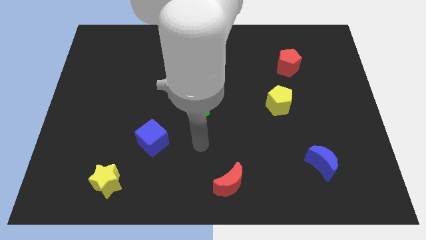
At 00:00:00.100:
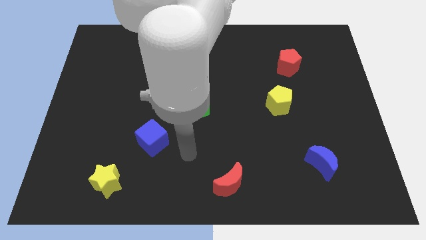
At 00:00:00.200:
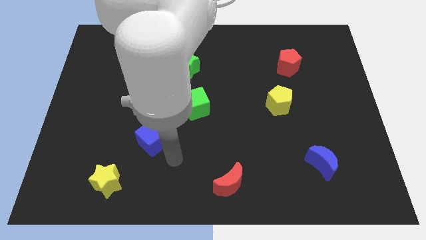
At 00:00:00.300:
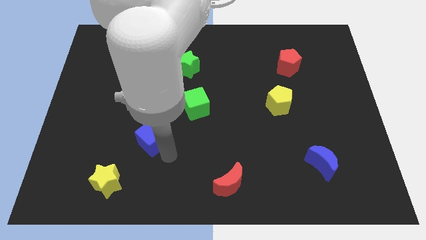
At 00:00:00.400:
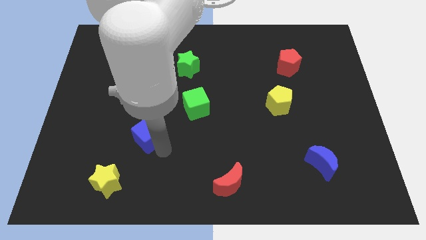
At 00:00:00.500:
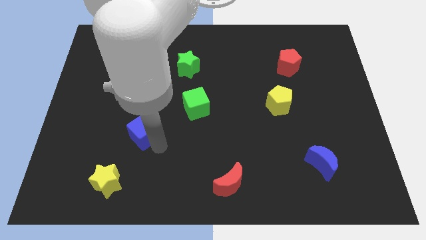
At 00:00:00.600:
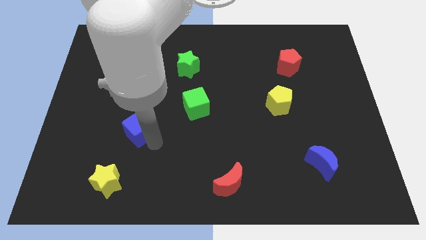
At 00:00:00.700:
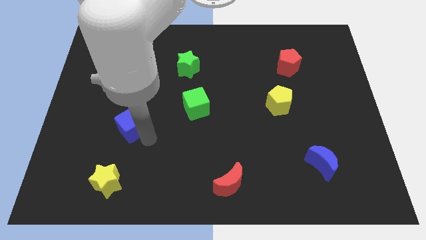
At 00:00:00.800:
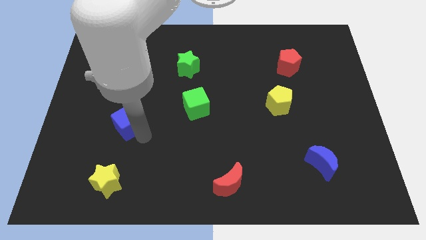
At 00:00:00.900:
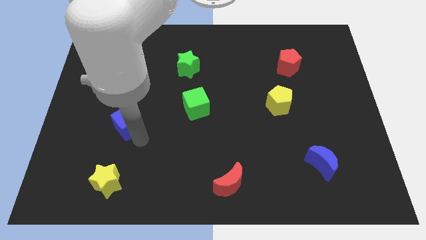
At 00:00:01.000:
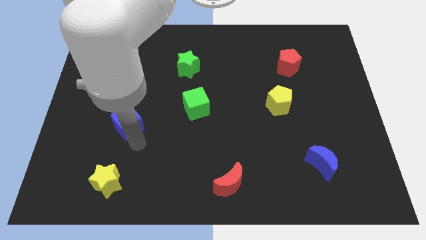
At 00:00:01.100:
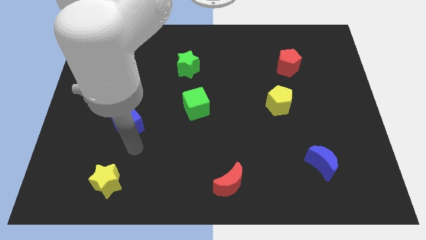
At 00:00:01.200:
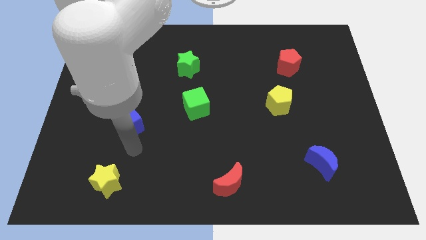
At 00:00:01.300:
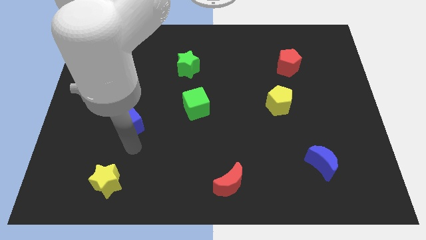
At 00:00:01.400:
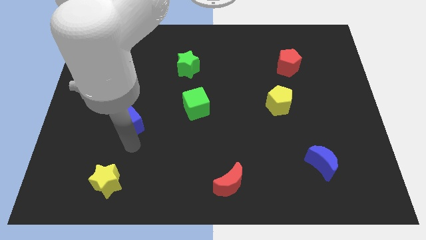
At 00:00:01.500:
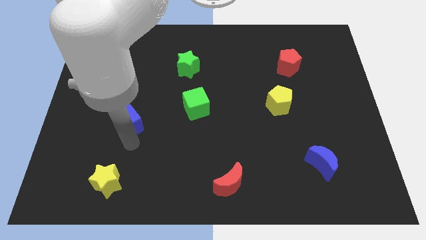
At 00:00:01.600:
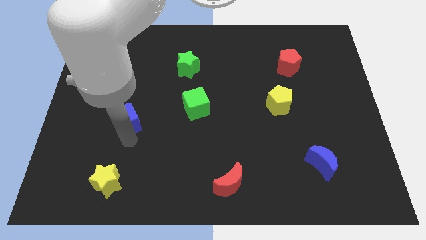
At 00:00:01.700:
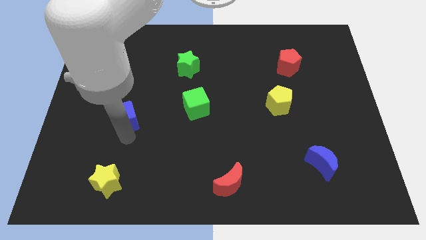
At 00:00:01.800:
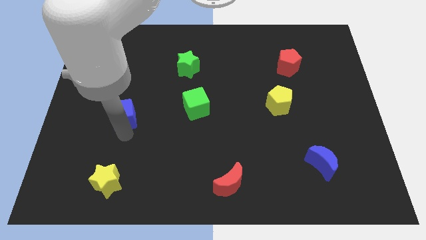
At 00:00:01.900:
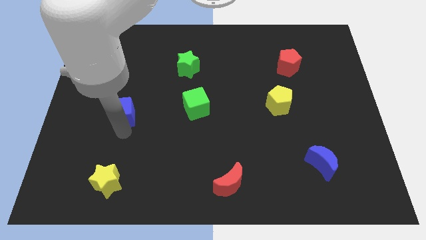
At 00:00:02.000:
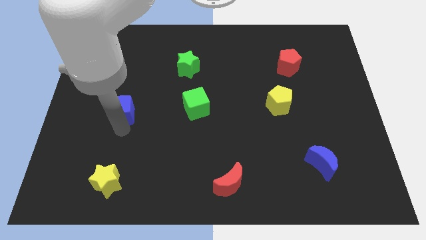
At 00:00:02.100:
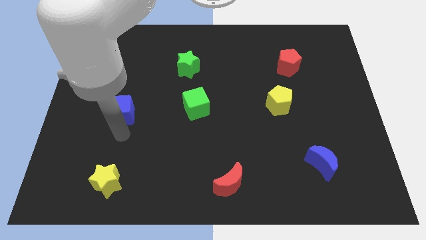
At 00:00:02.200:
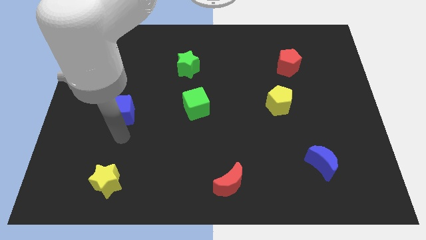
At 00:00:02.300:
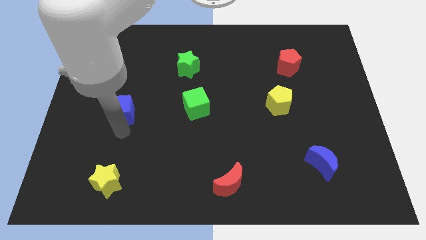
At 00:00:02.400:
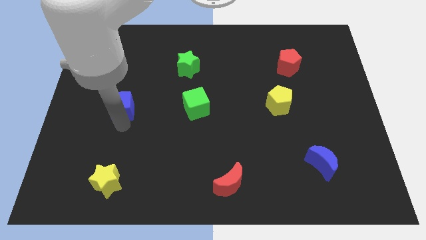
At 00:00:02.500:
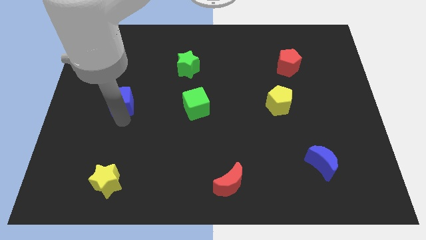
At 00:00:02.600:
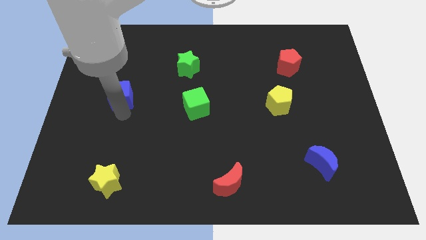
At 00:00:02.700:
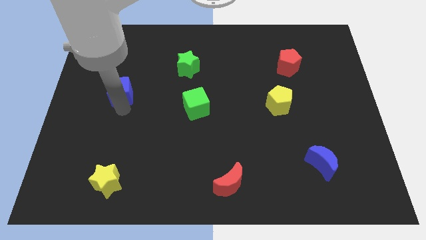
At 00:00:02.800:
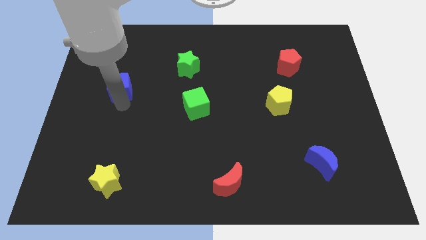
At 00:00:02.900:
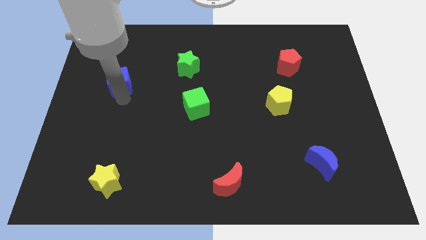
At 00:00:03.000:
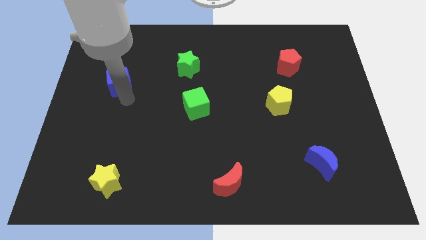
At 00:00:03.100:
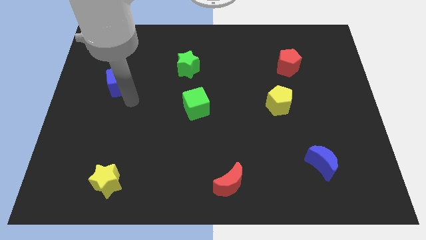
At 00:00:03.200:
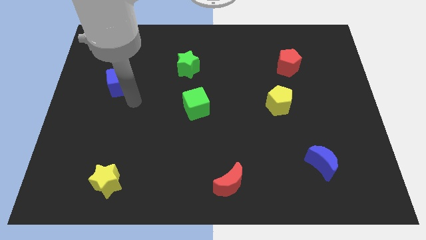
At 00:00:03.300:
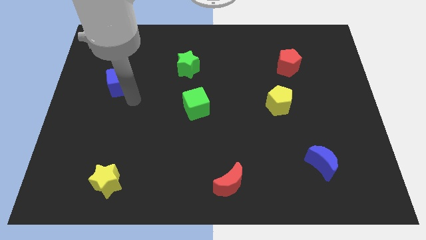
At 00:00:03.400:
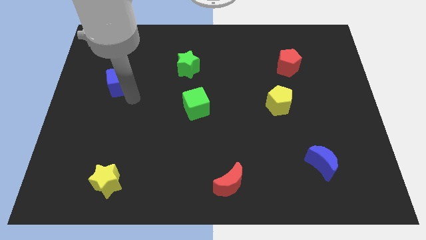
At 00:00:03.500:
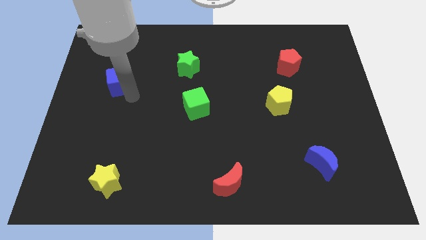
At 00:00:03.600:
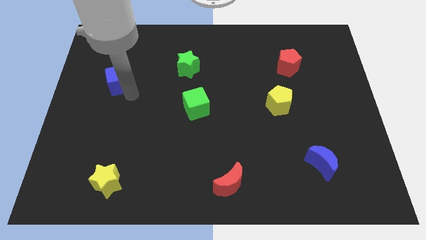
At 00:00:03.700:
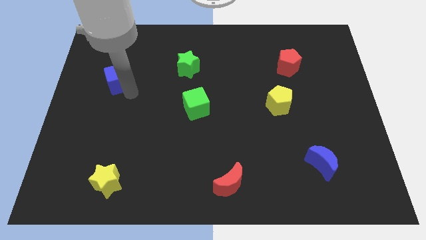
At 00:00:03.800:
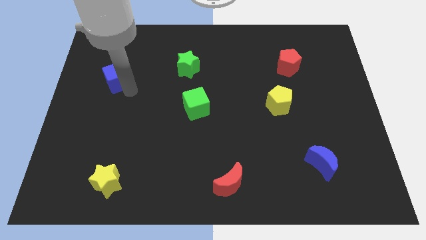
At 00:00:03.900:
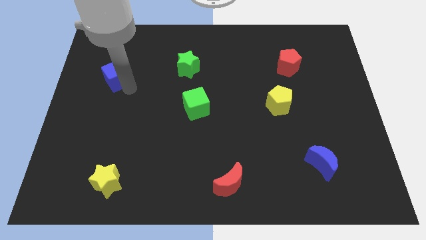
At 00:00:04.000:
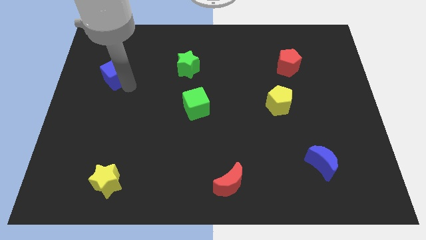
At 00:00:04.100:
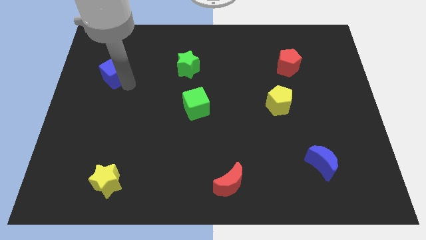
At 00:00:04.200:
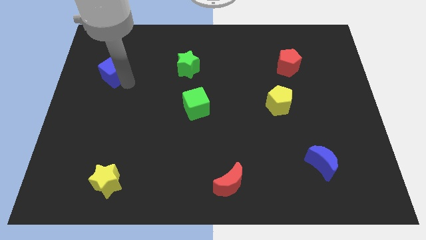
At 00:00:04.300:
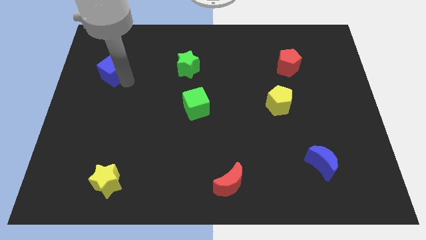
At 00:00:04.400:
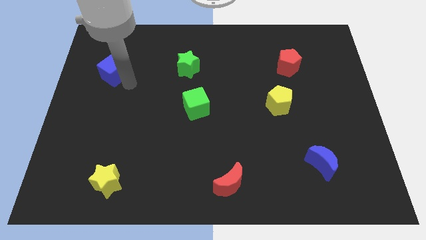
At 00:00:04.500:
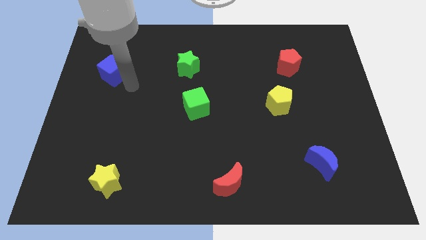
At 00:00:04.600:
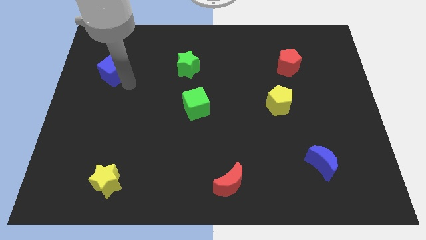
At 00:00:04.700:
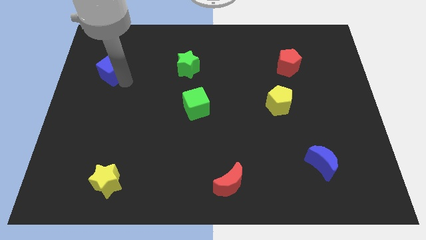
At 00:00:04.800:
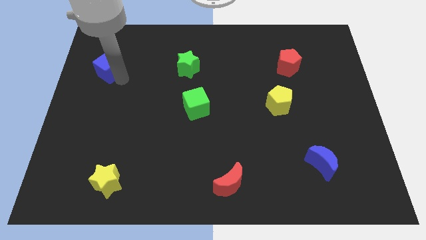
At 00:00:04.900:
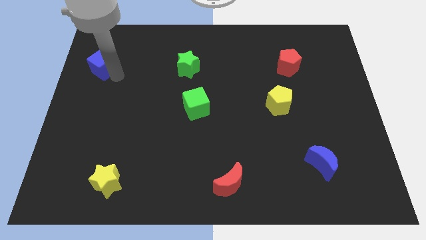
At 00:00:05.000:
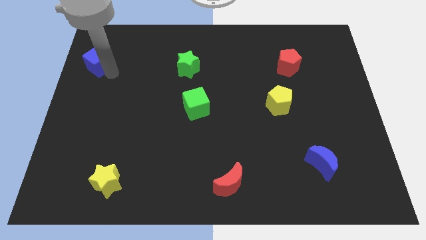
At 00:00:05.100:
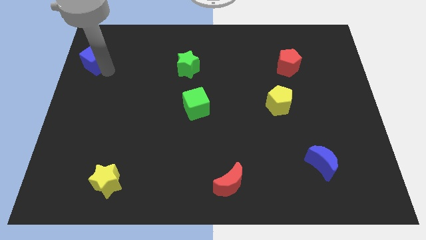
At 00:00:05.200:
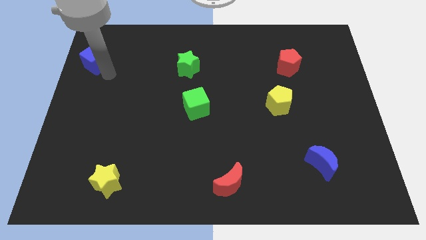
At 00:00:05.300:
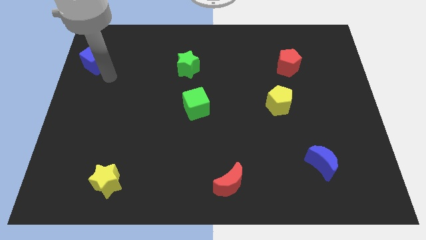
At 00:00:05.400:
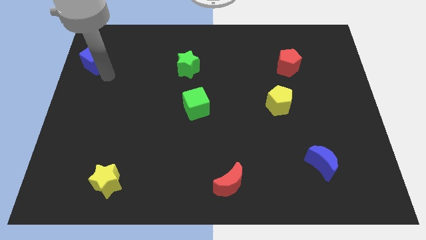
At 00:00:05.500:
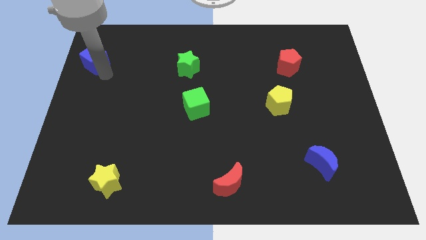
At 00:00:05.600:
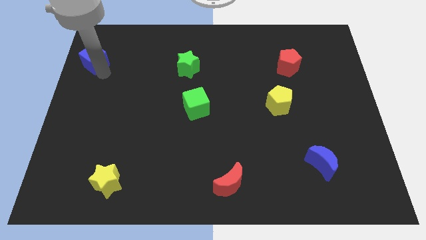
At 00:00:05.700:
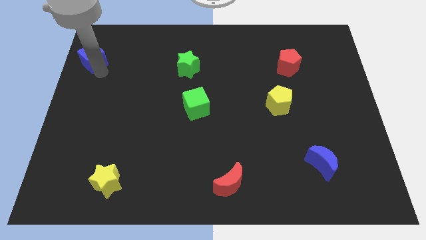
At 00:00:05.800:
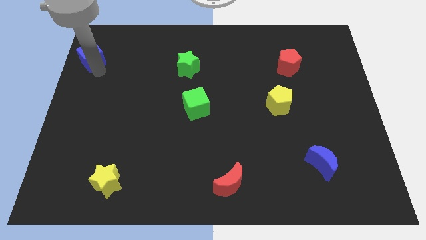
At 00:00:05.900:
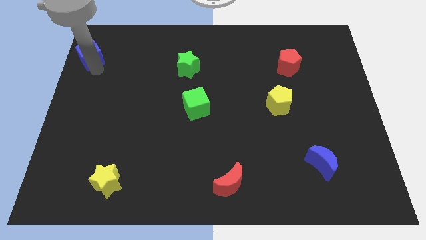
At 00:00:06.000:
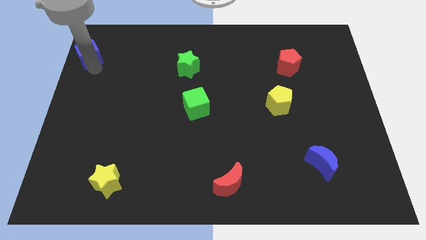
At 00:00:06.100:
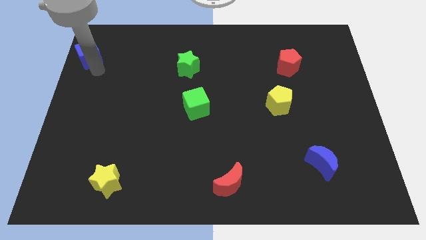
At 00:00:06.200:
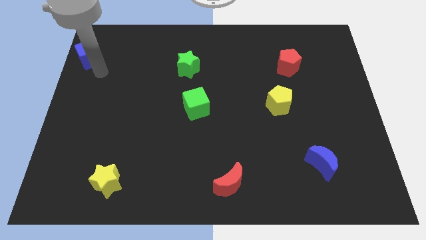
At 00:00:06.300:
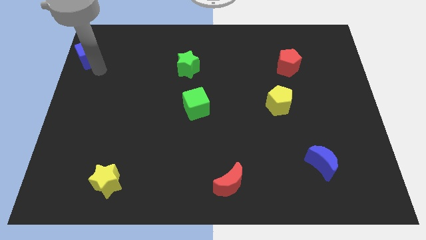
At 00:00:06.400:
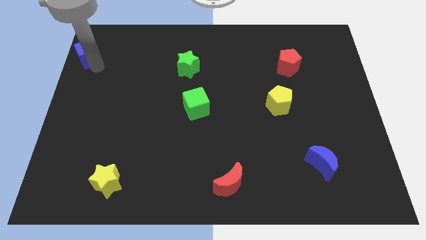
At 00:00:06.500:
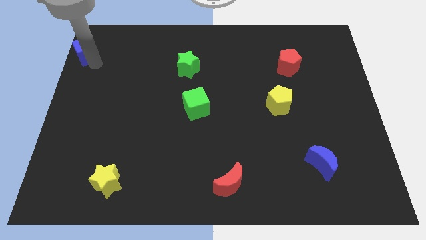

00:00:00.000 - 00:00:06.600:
move the blue cube to the top left of the board

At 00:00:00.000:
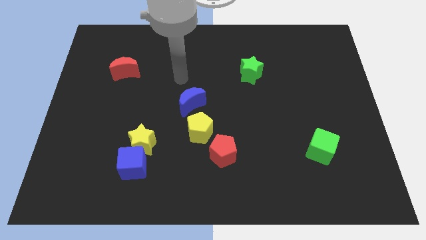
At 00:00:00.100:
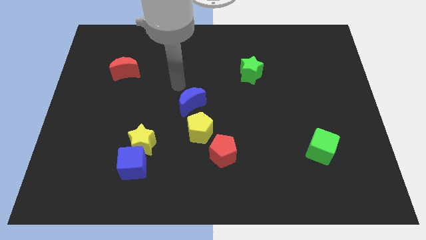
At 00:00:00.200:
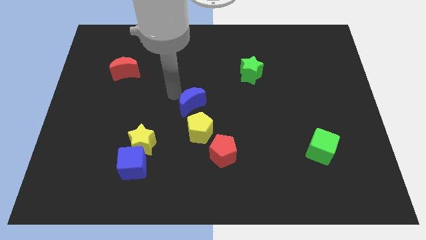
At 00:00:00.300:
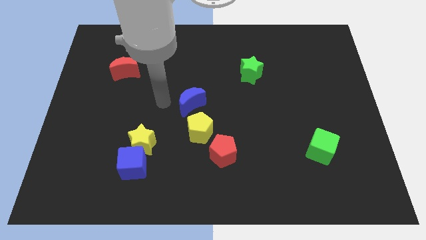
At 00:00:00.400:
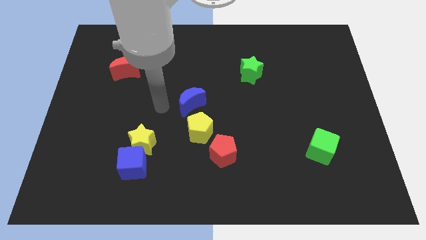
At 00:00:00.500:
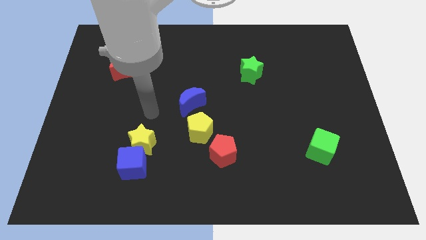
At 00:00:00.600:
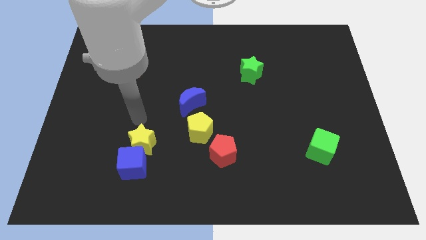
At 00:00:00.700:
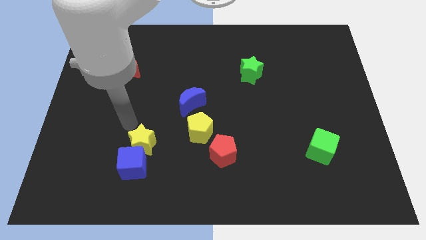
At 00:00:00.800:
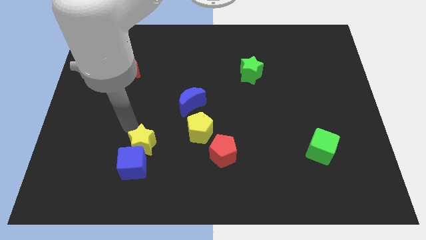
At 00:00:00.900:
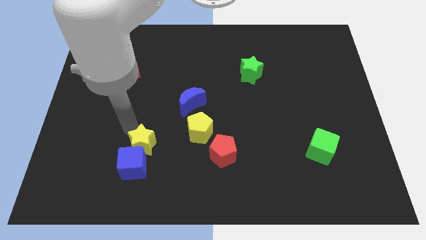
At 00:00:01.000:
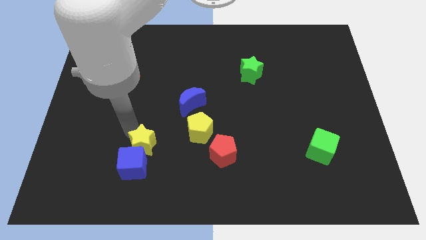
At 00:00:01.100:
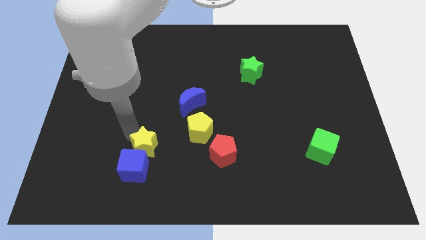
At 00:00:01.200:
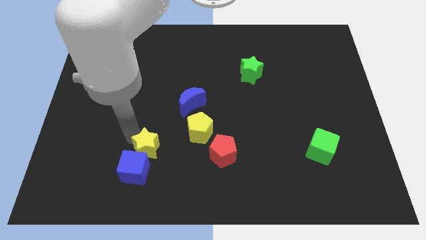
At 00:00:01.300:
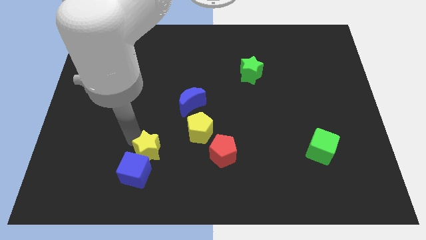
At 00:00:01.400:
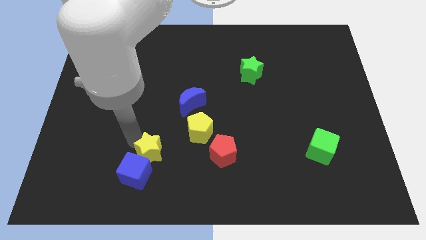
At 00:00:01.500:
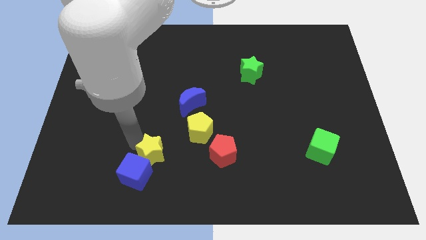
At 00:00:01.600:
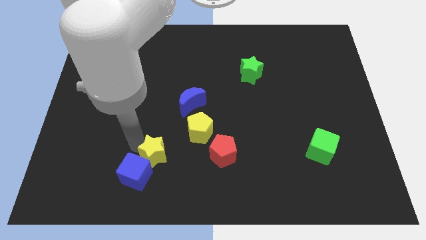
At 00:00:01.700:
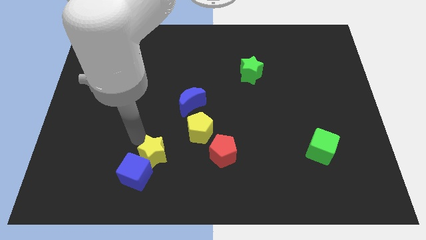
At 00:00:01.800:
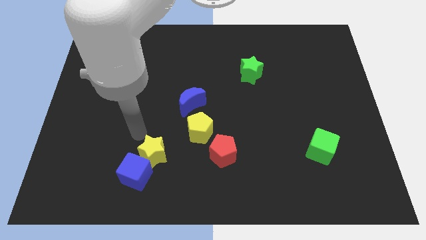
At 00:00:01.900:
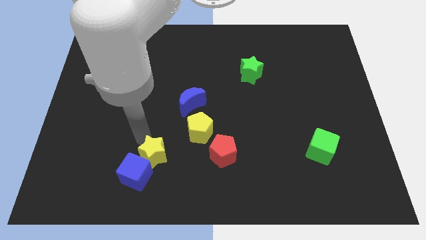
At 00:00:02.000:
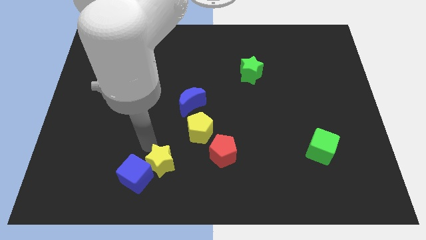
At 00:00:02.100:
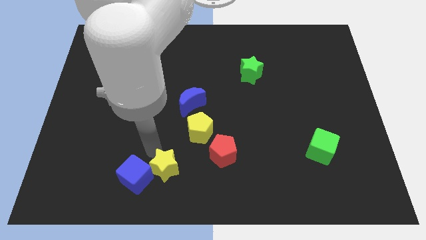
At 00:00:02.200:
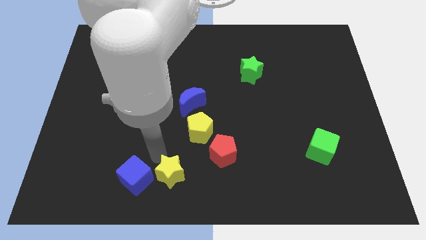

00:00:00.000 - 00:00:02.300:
move the yellow star to the bottom
